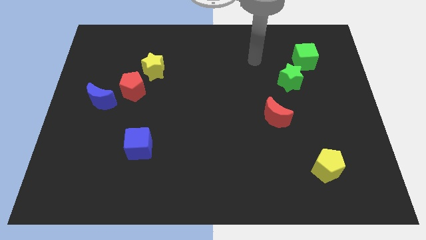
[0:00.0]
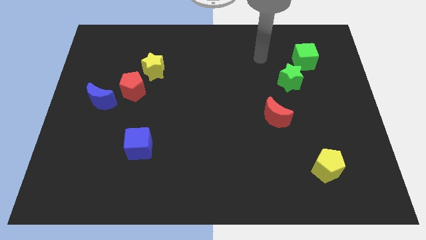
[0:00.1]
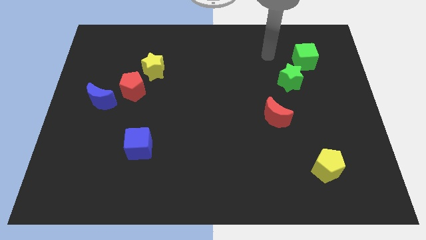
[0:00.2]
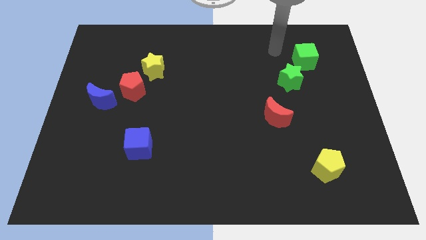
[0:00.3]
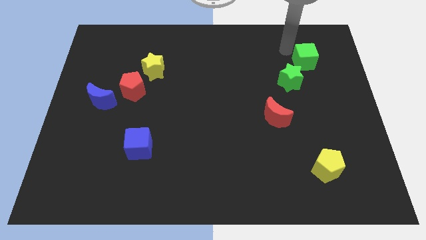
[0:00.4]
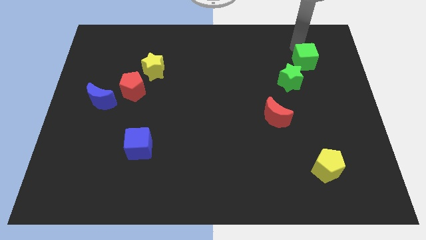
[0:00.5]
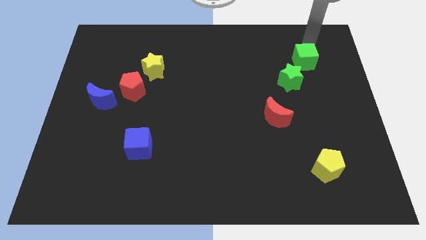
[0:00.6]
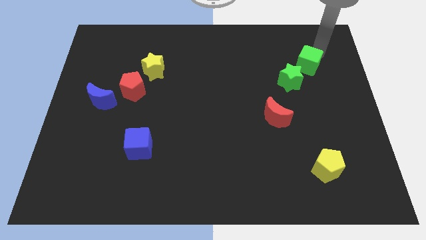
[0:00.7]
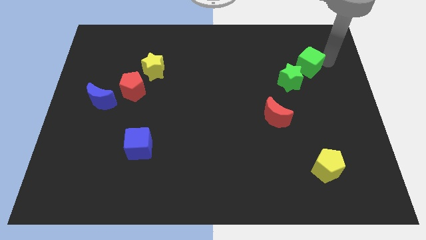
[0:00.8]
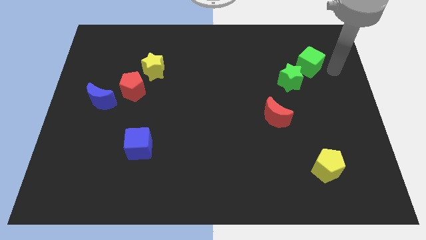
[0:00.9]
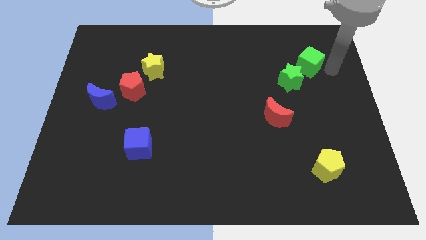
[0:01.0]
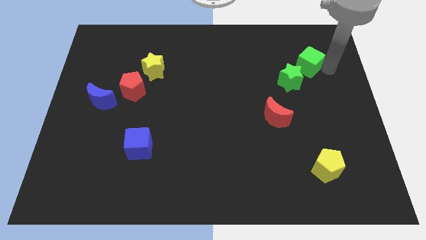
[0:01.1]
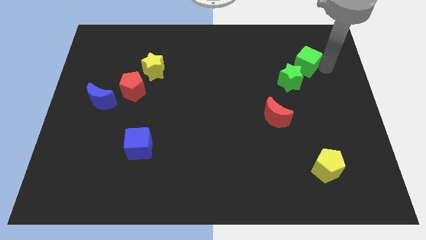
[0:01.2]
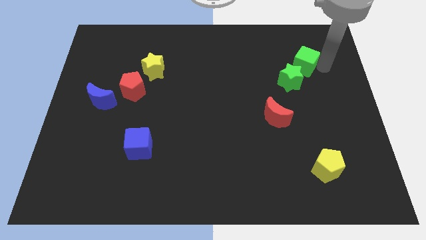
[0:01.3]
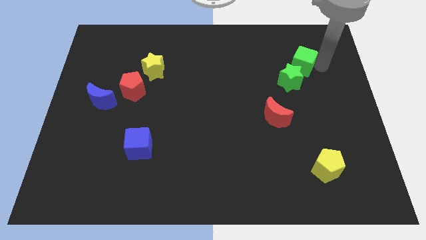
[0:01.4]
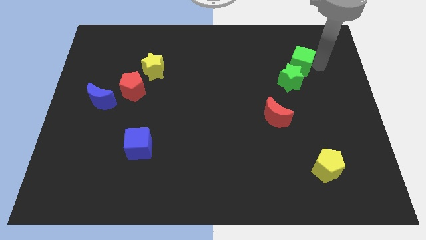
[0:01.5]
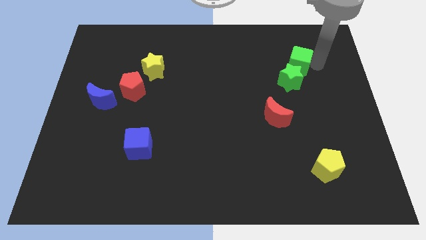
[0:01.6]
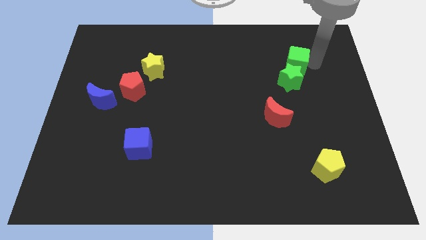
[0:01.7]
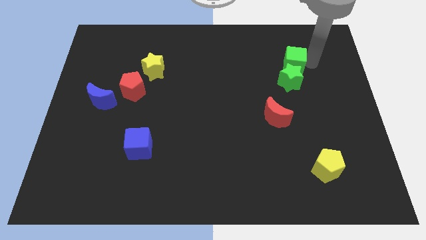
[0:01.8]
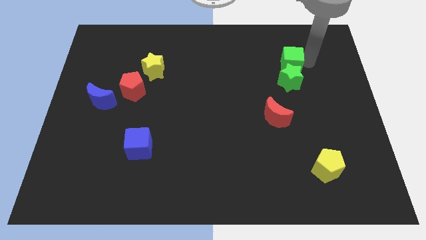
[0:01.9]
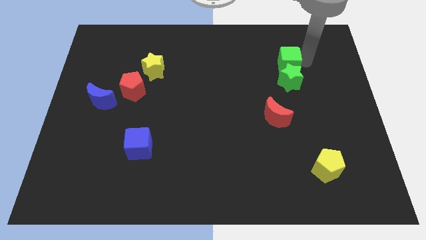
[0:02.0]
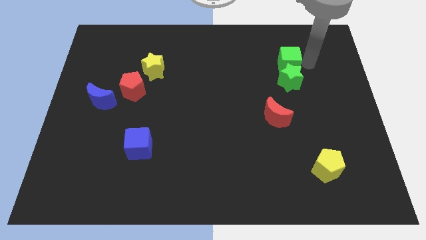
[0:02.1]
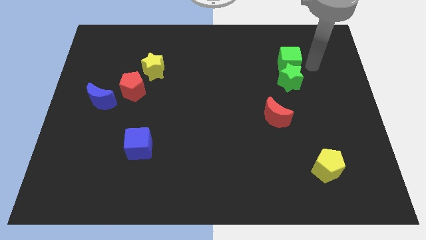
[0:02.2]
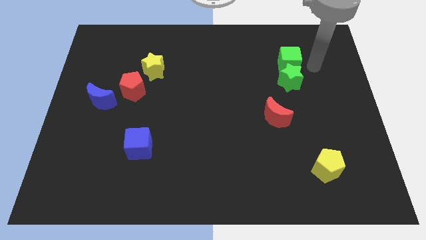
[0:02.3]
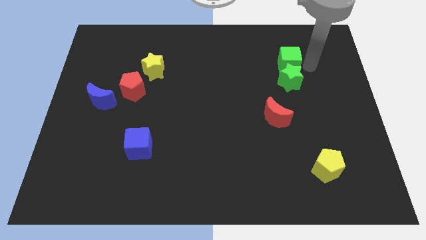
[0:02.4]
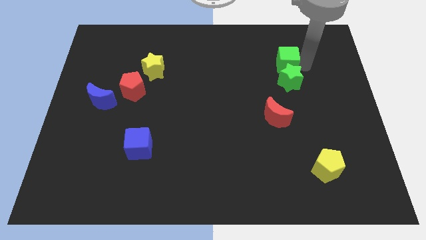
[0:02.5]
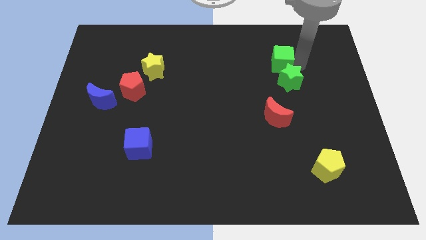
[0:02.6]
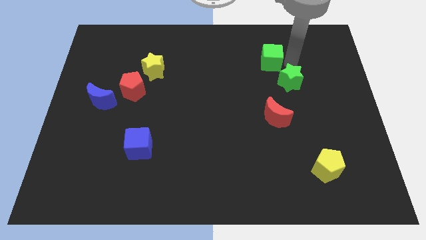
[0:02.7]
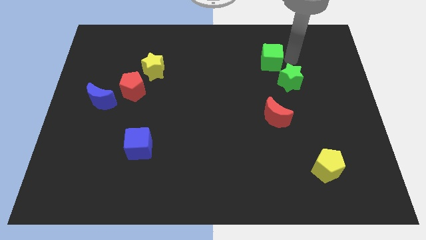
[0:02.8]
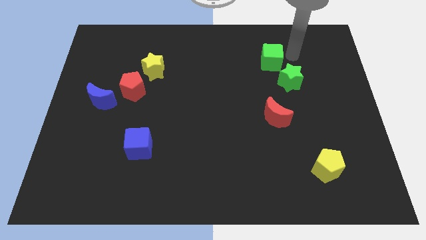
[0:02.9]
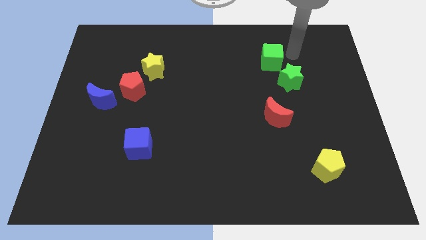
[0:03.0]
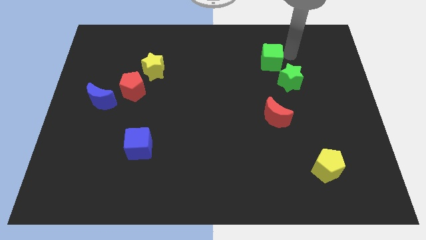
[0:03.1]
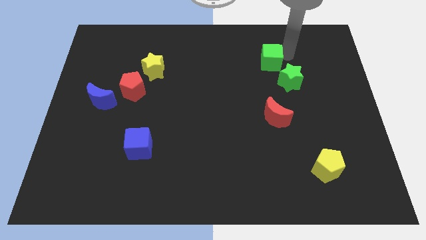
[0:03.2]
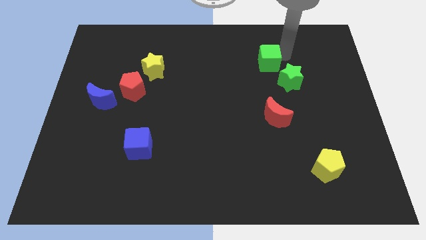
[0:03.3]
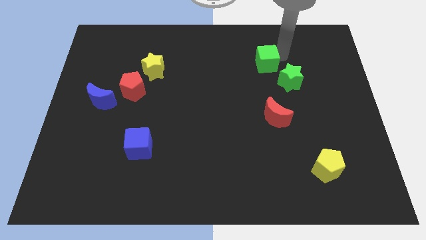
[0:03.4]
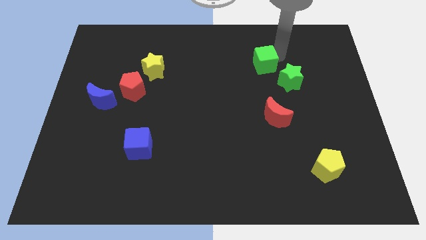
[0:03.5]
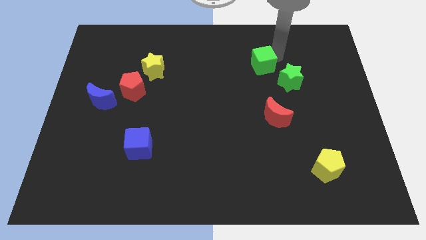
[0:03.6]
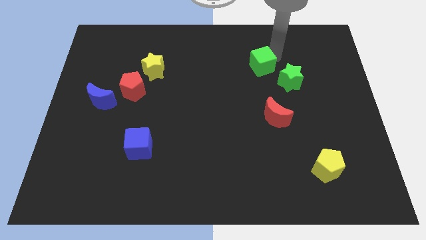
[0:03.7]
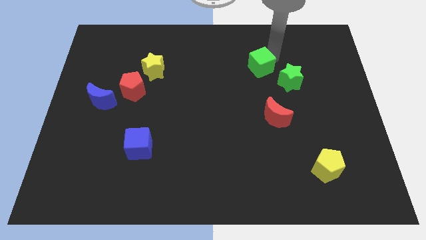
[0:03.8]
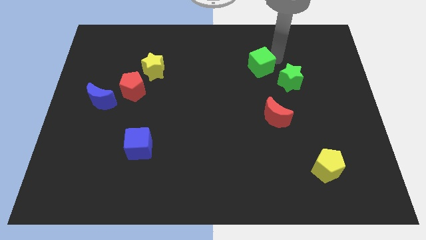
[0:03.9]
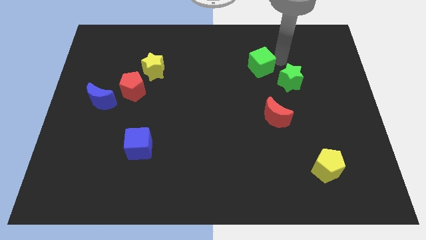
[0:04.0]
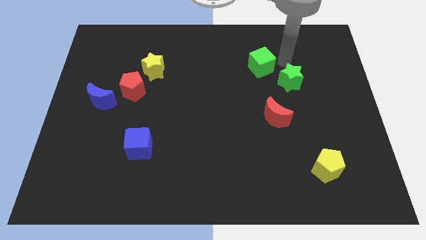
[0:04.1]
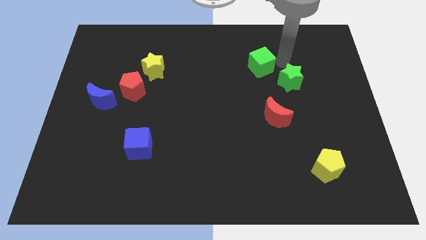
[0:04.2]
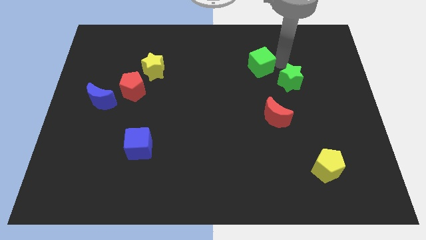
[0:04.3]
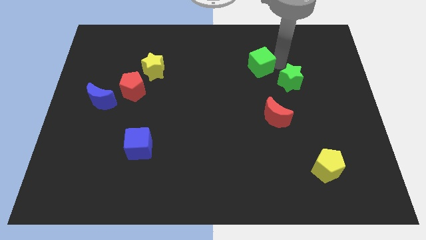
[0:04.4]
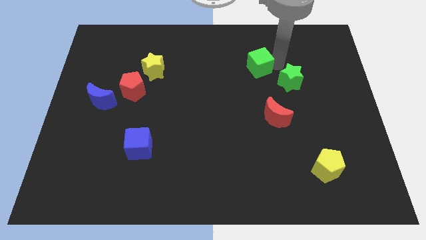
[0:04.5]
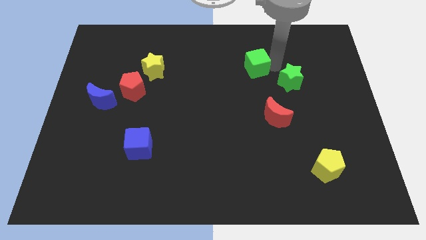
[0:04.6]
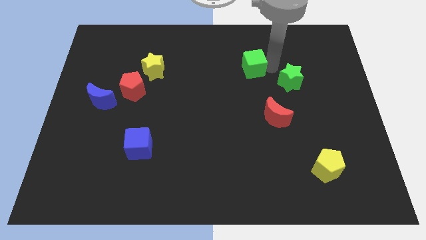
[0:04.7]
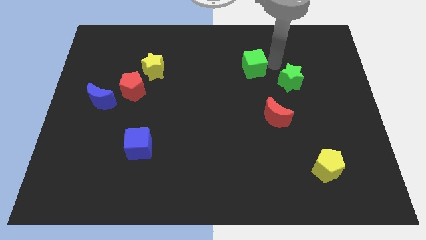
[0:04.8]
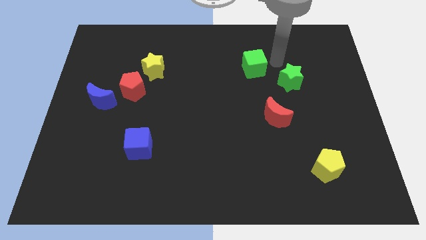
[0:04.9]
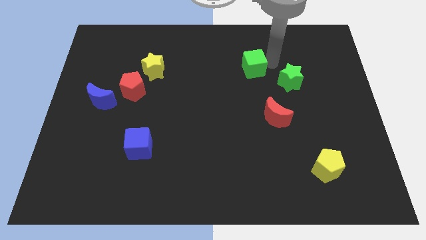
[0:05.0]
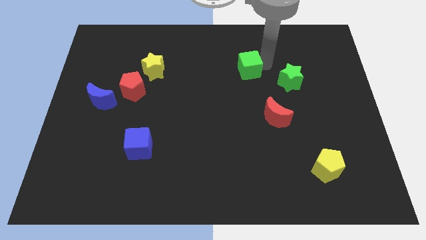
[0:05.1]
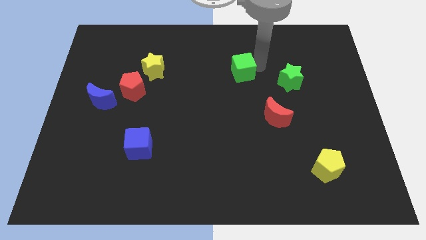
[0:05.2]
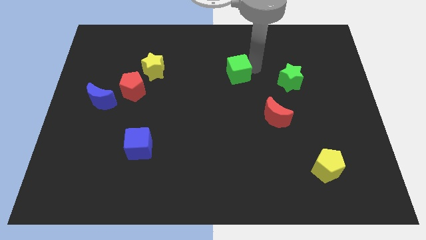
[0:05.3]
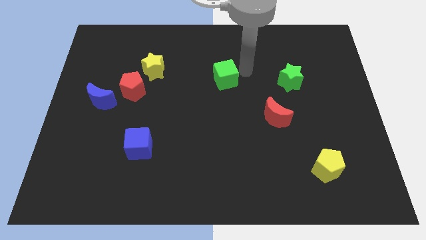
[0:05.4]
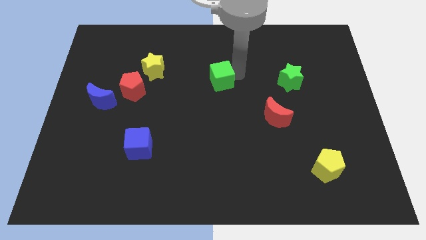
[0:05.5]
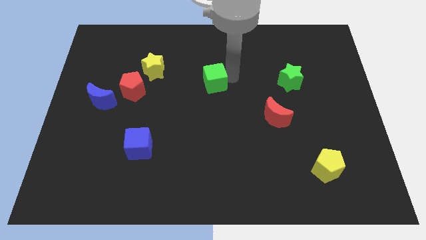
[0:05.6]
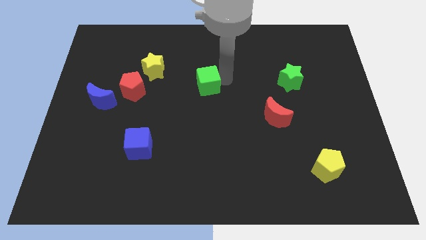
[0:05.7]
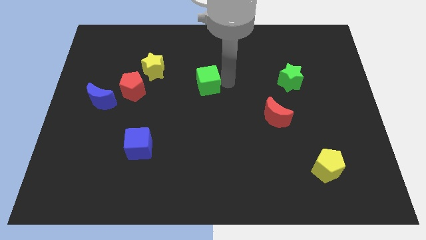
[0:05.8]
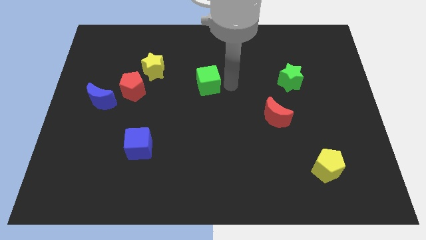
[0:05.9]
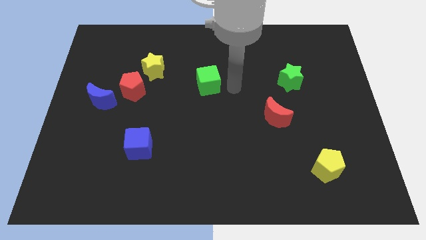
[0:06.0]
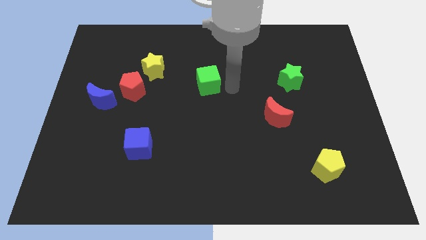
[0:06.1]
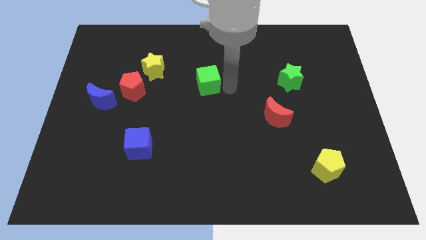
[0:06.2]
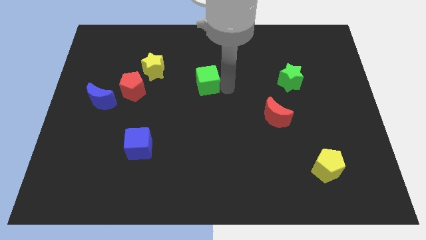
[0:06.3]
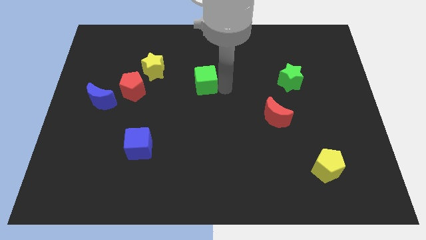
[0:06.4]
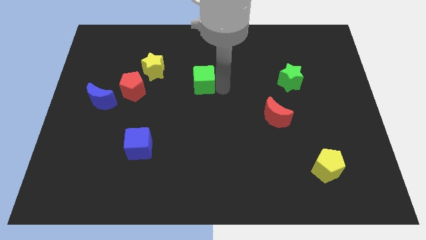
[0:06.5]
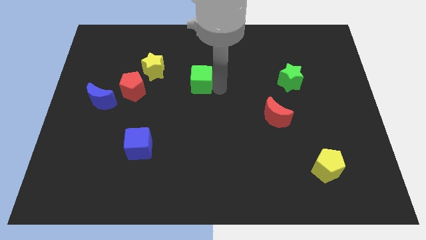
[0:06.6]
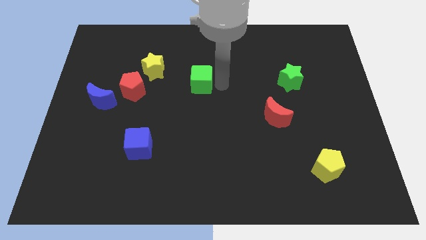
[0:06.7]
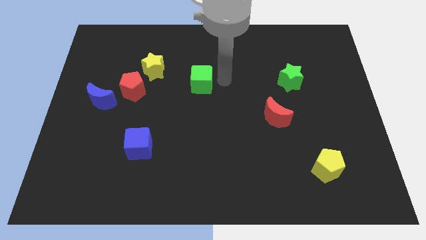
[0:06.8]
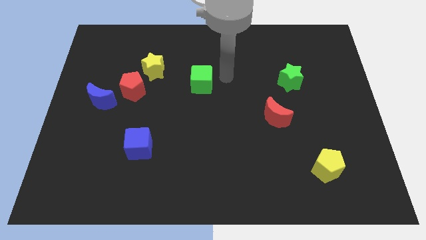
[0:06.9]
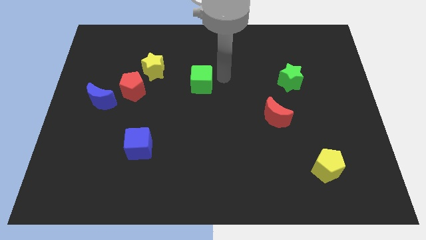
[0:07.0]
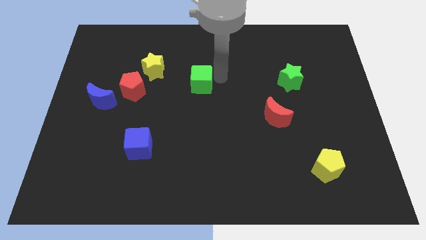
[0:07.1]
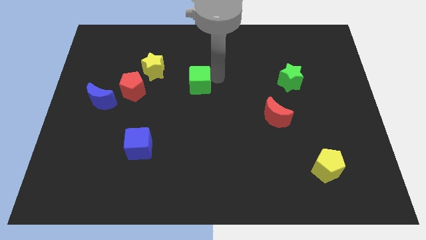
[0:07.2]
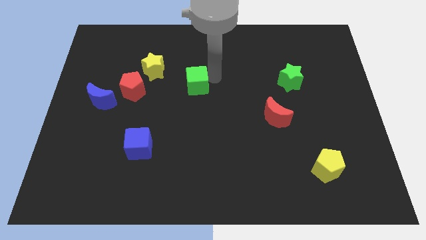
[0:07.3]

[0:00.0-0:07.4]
move the green cube to the right side of the red pentagon
